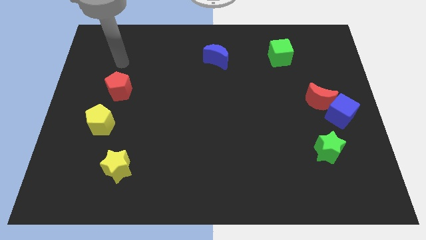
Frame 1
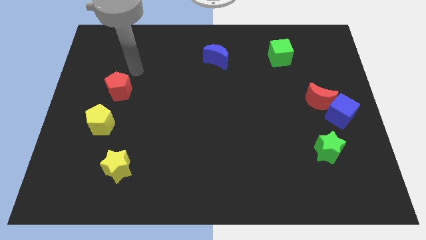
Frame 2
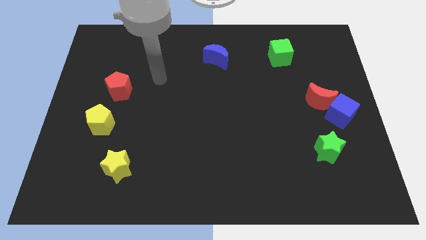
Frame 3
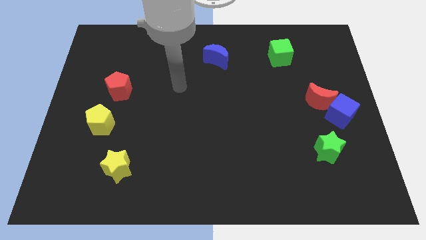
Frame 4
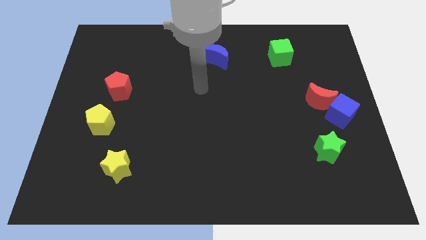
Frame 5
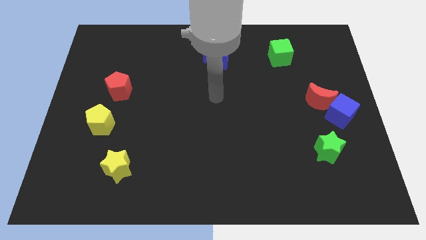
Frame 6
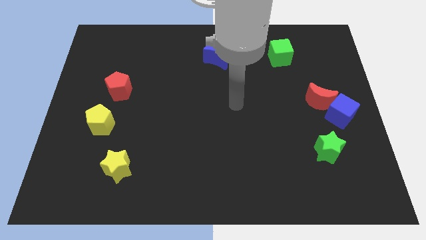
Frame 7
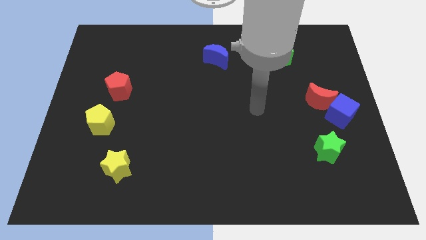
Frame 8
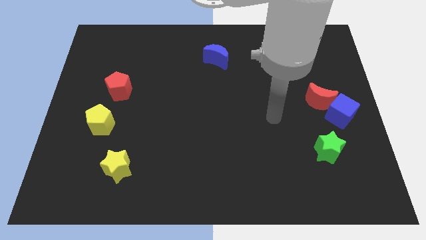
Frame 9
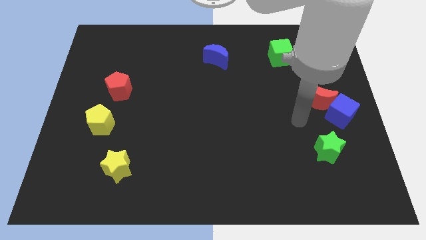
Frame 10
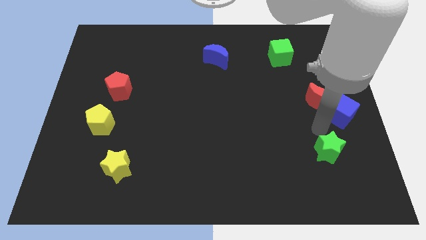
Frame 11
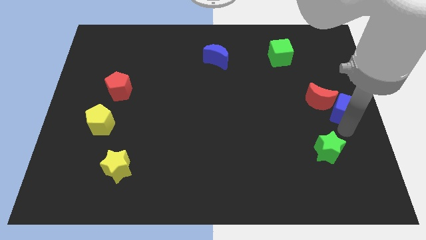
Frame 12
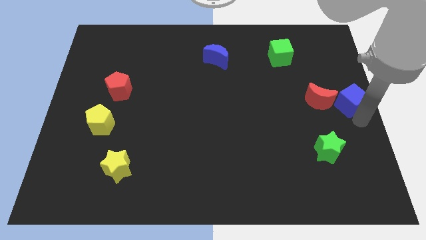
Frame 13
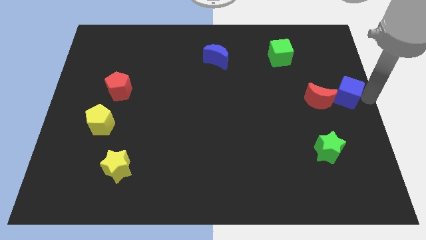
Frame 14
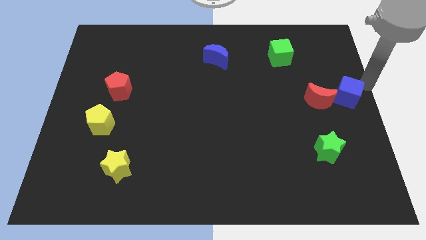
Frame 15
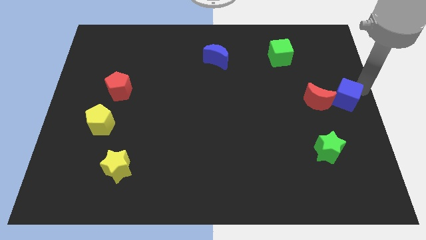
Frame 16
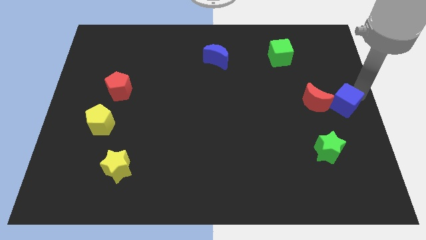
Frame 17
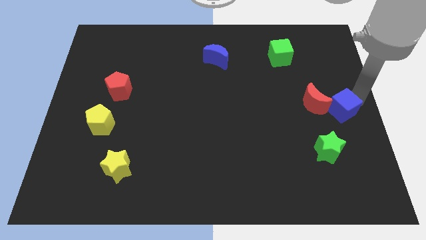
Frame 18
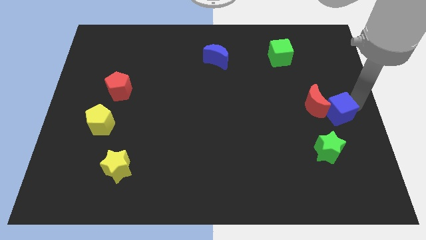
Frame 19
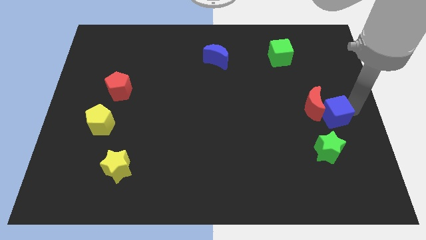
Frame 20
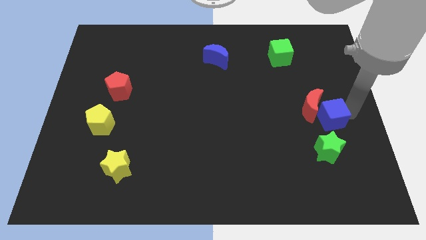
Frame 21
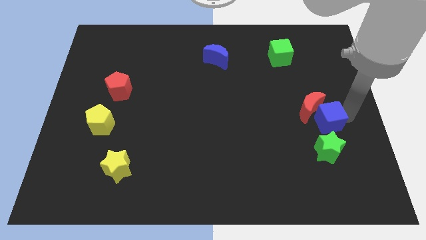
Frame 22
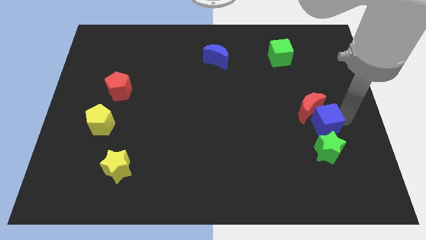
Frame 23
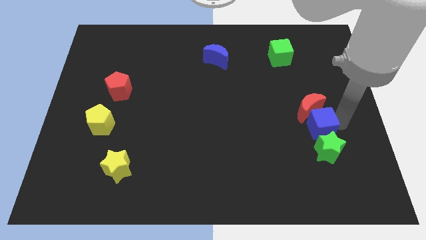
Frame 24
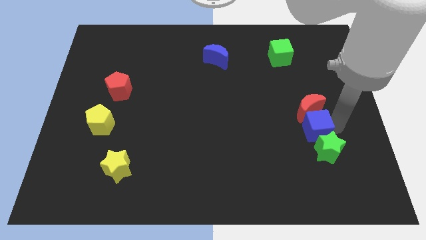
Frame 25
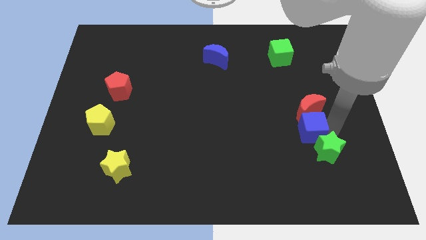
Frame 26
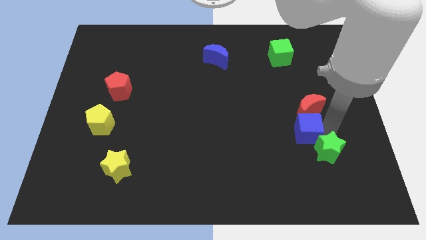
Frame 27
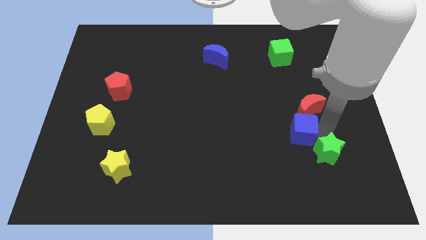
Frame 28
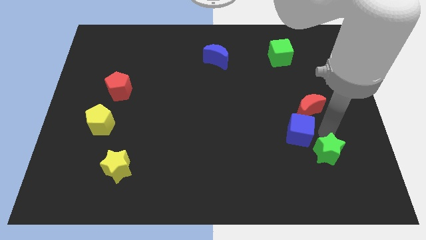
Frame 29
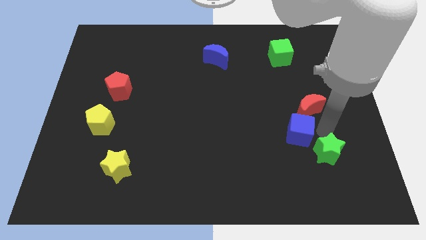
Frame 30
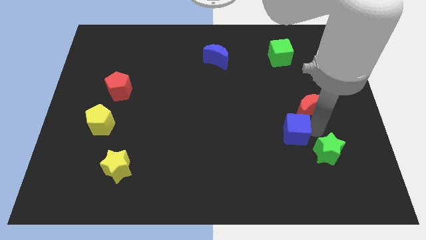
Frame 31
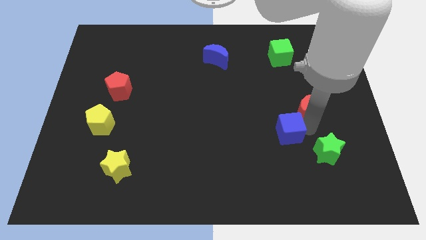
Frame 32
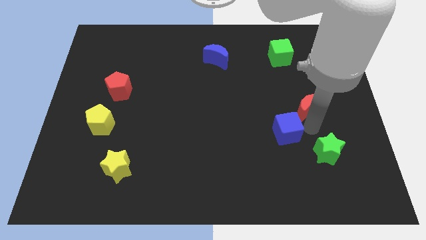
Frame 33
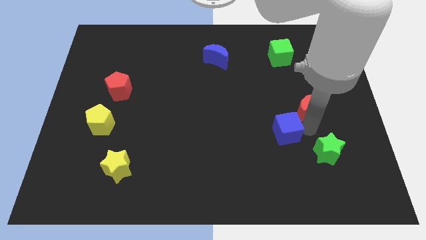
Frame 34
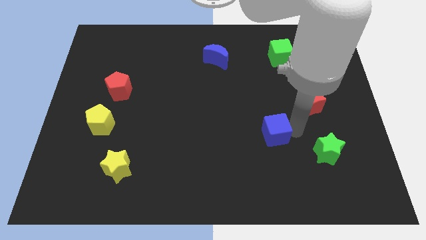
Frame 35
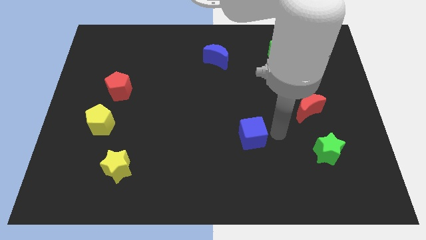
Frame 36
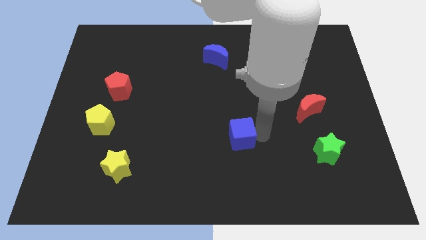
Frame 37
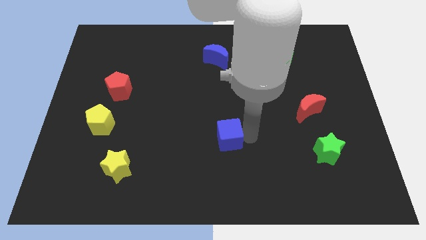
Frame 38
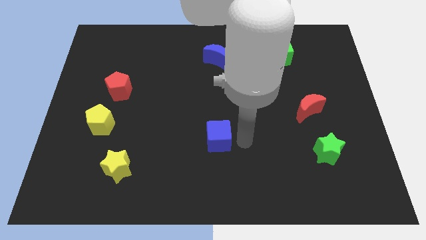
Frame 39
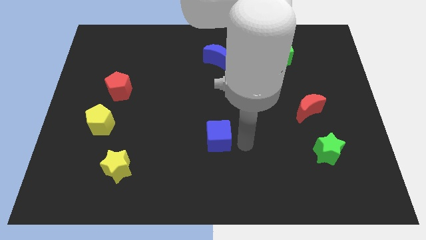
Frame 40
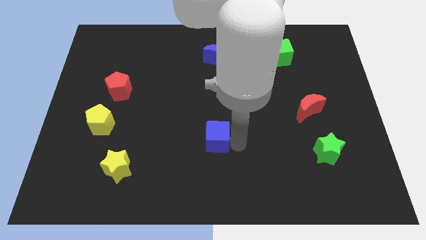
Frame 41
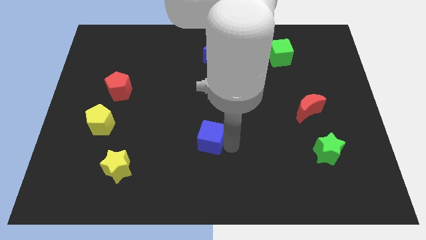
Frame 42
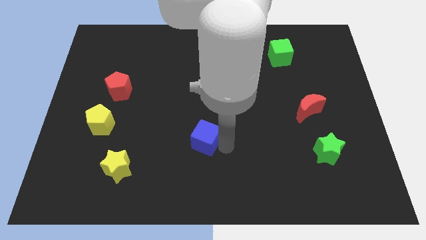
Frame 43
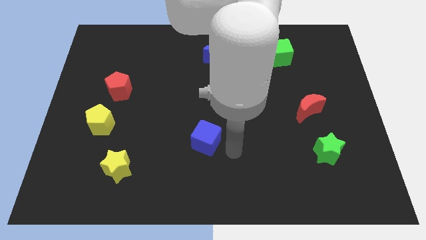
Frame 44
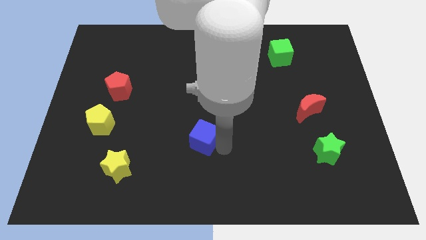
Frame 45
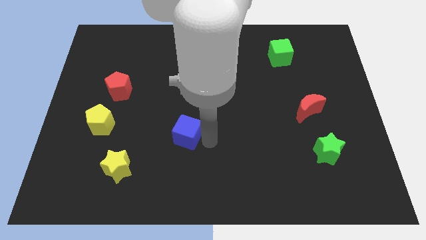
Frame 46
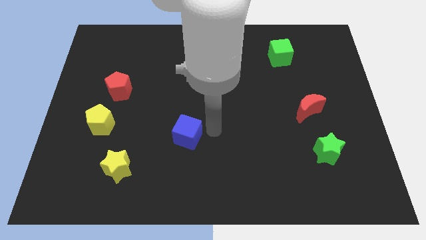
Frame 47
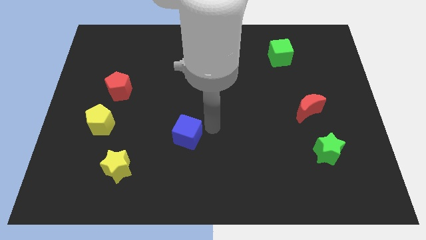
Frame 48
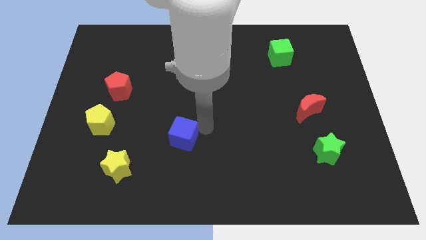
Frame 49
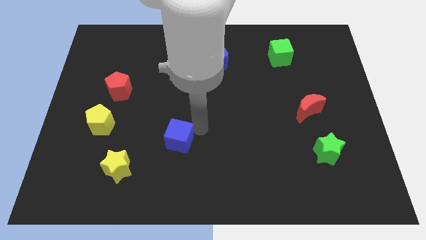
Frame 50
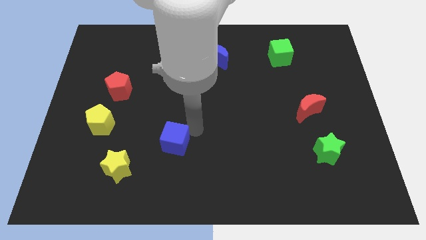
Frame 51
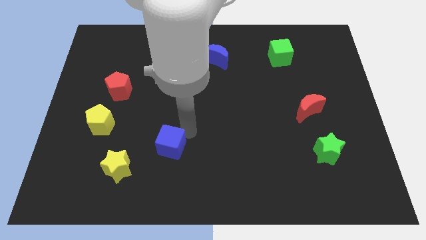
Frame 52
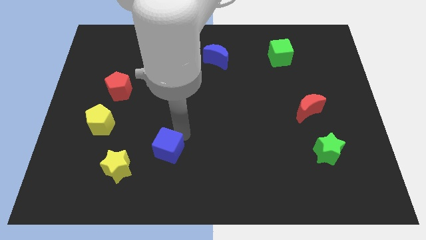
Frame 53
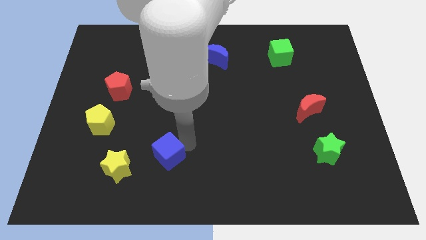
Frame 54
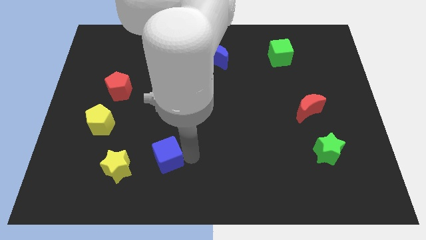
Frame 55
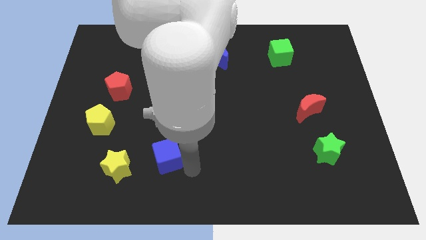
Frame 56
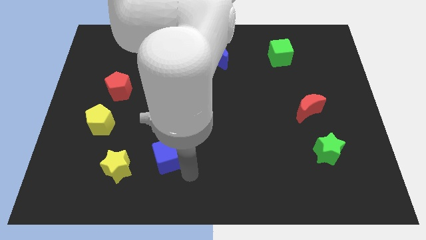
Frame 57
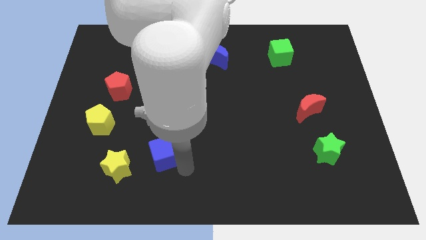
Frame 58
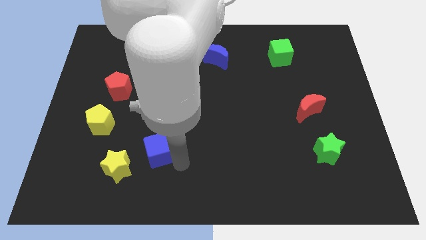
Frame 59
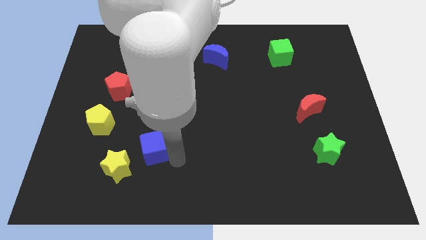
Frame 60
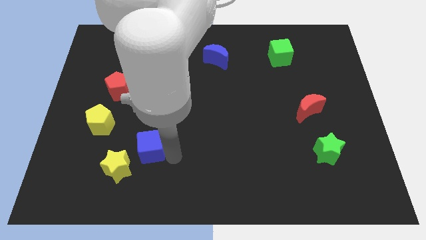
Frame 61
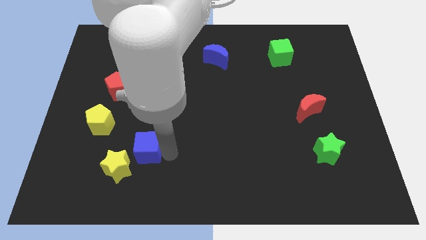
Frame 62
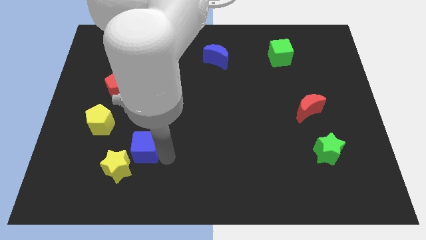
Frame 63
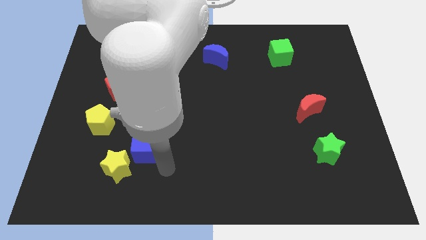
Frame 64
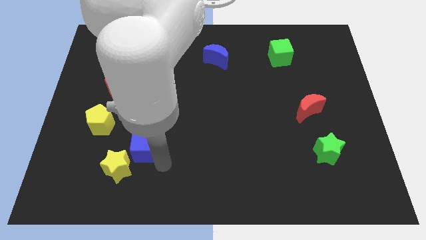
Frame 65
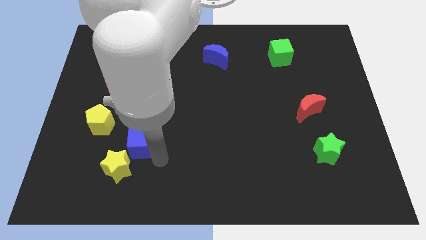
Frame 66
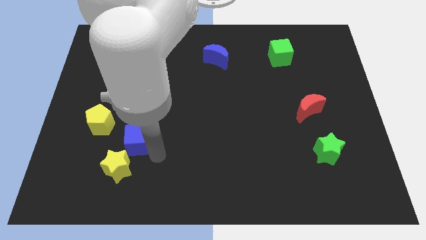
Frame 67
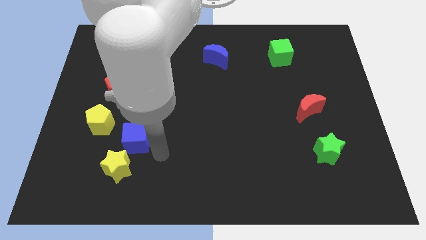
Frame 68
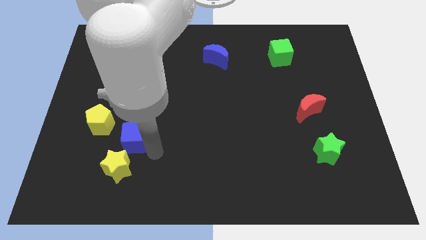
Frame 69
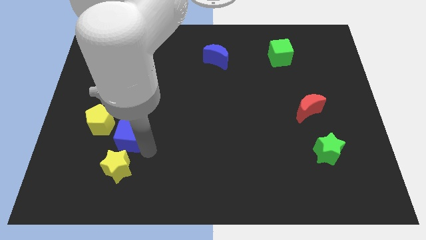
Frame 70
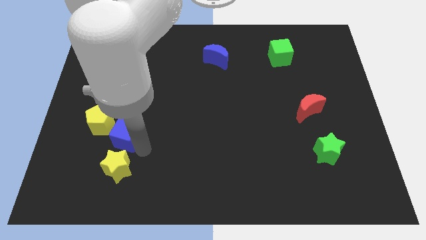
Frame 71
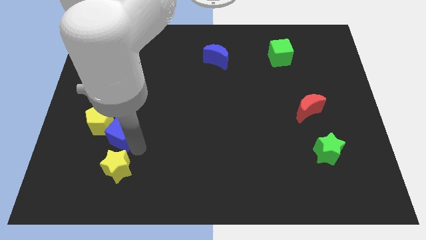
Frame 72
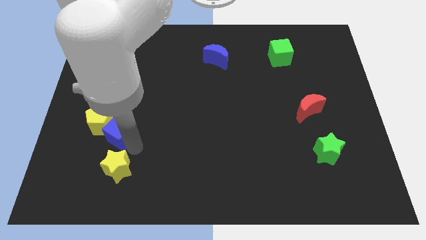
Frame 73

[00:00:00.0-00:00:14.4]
move the blue cube towards the yellow pentagon

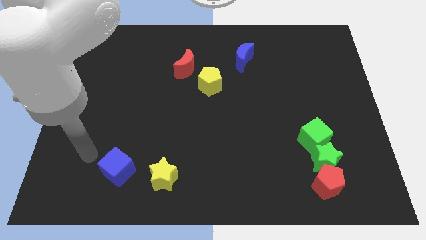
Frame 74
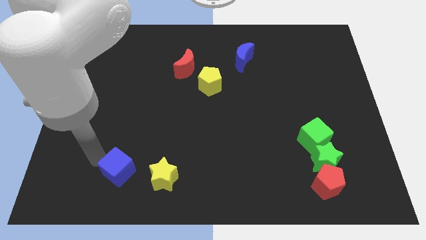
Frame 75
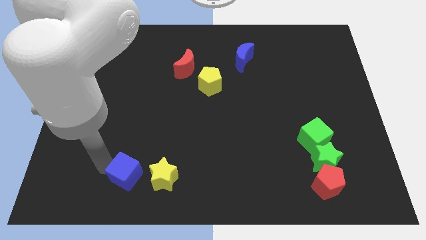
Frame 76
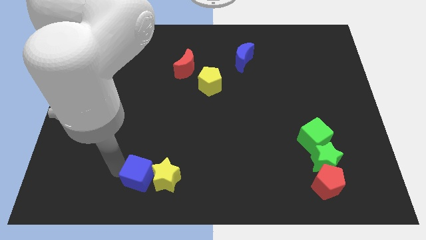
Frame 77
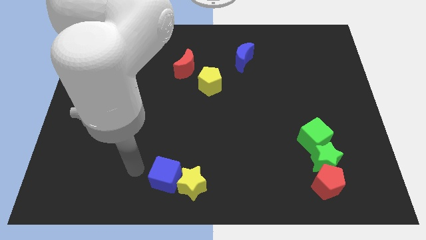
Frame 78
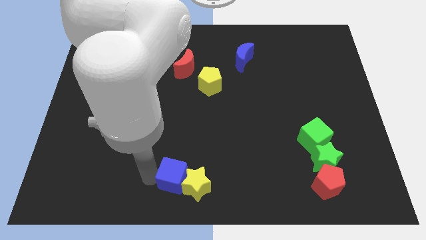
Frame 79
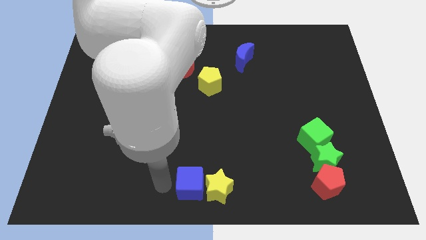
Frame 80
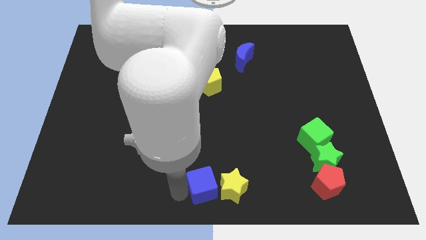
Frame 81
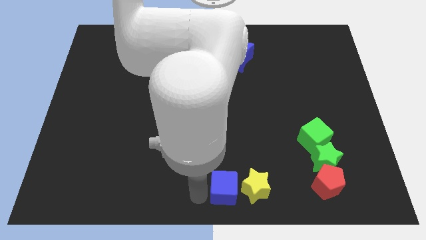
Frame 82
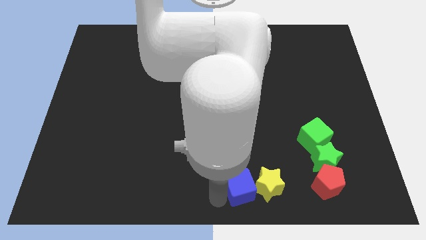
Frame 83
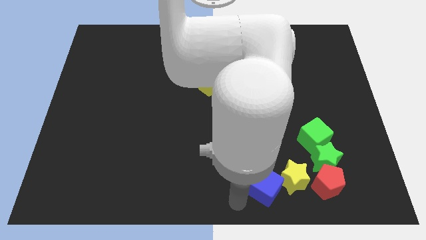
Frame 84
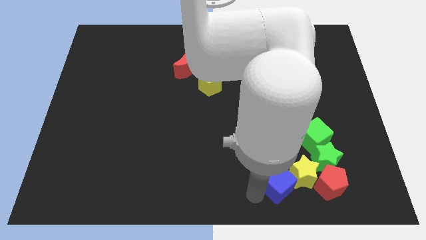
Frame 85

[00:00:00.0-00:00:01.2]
push the yellow star next to the green star
